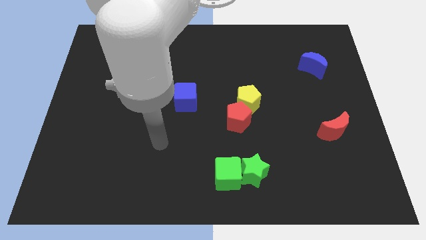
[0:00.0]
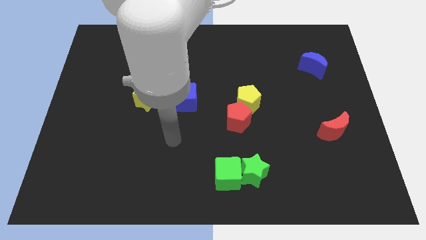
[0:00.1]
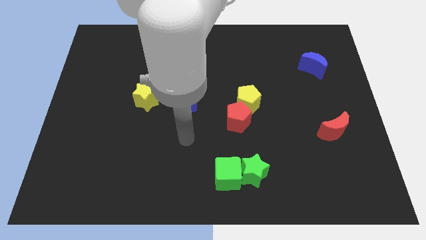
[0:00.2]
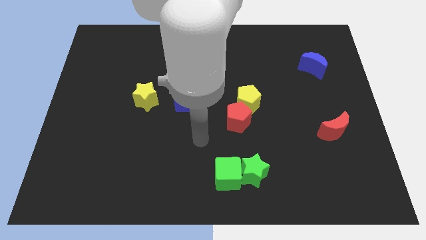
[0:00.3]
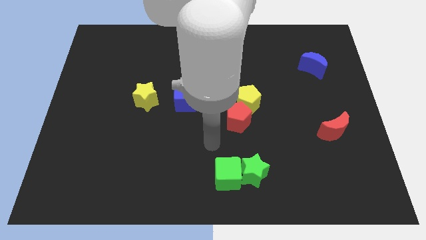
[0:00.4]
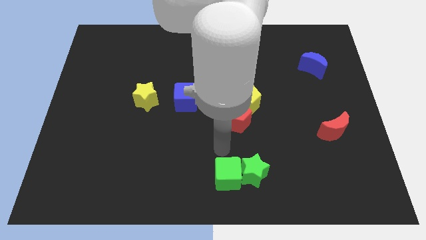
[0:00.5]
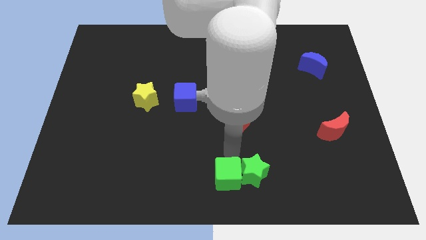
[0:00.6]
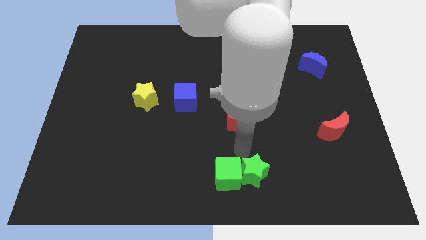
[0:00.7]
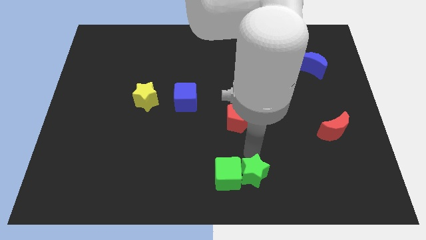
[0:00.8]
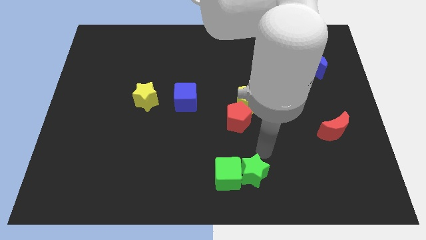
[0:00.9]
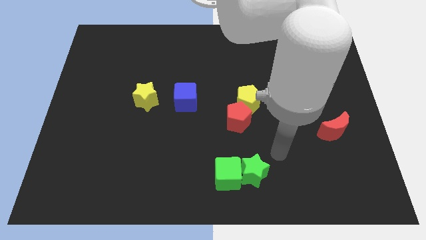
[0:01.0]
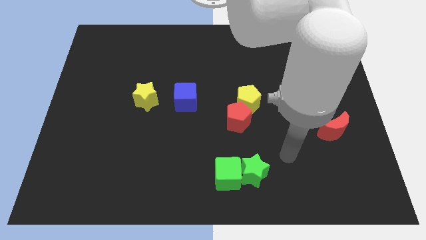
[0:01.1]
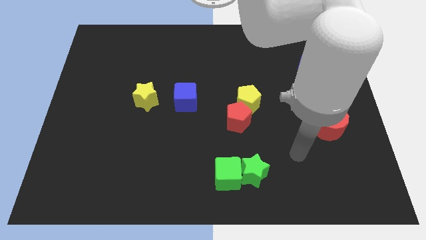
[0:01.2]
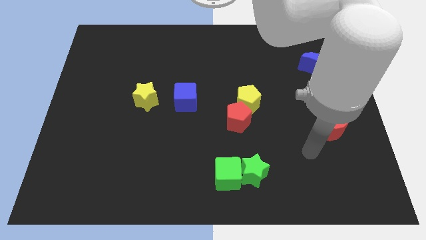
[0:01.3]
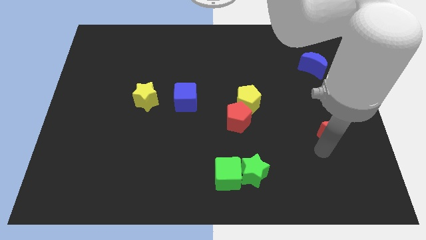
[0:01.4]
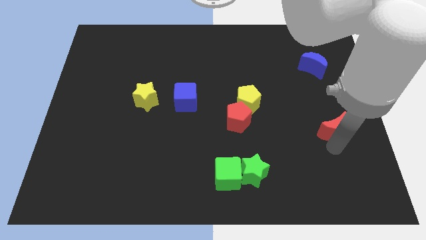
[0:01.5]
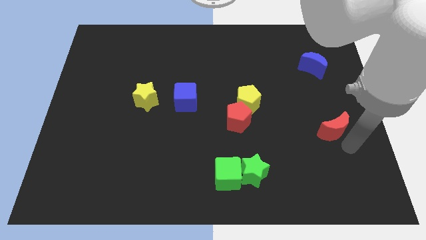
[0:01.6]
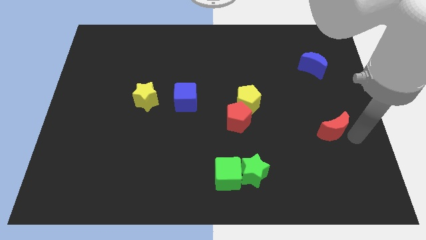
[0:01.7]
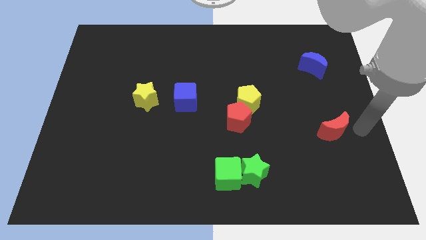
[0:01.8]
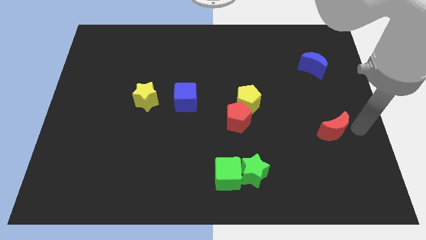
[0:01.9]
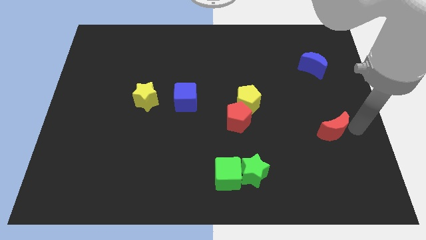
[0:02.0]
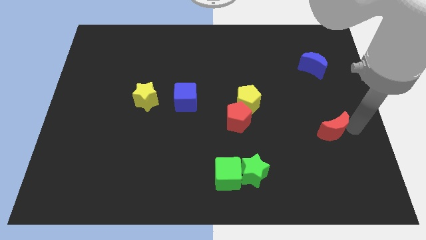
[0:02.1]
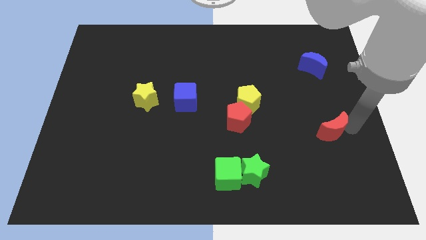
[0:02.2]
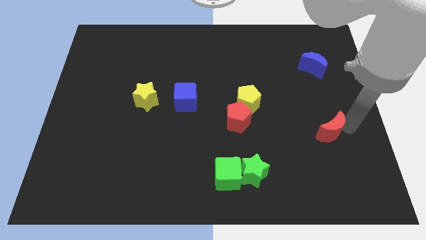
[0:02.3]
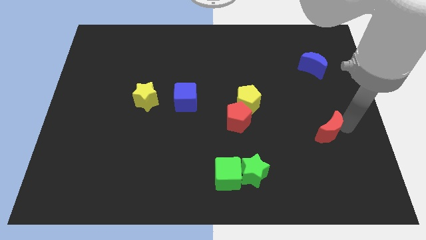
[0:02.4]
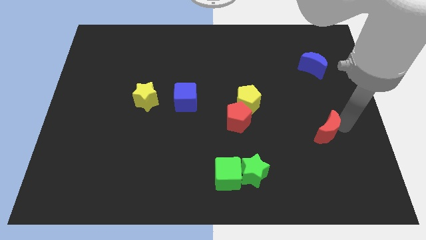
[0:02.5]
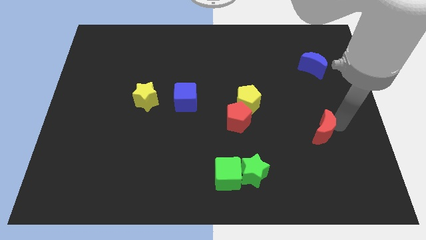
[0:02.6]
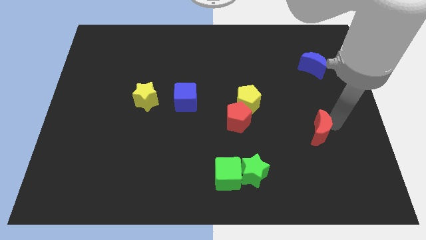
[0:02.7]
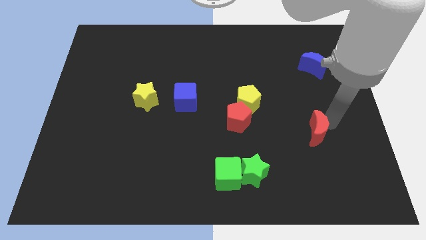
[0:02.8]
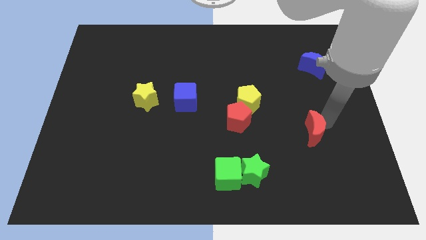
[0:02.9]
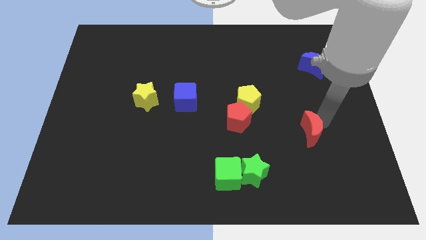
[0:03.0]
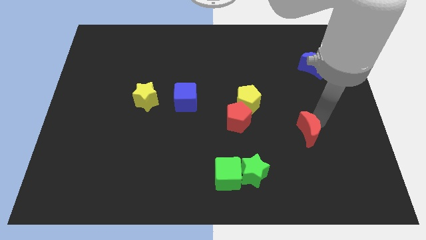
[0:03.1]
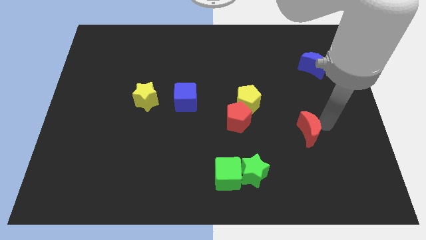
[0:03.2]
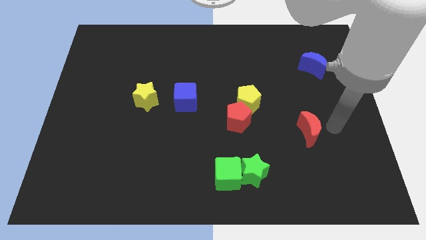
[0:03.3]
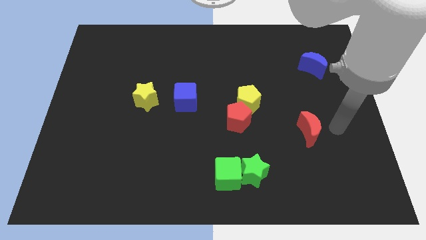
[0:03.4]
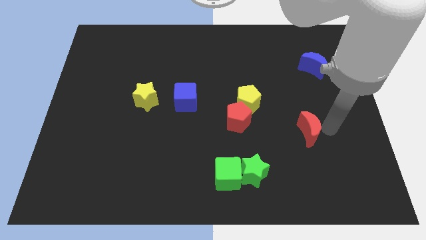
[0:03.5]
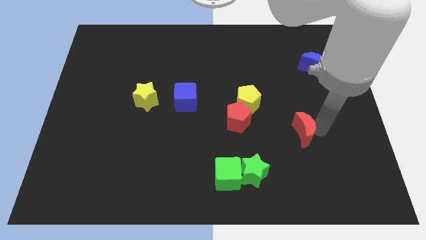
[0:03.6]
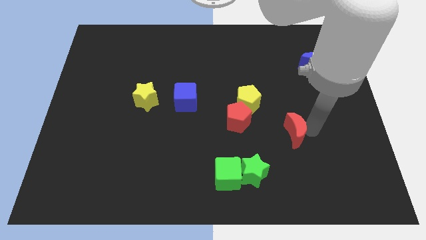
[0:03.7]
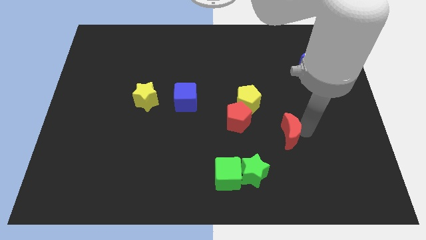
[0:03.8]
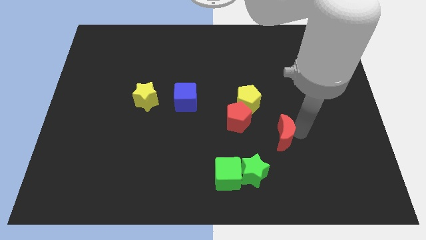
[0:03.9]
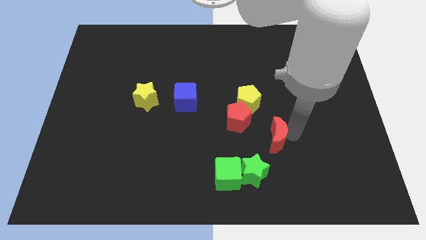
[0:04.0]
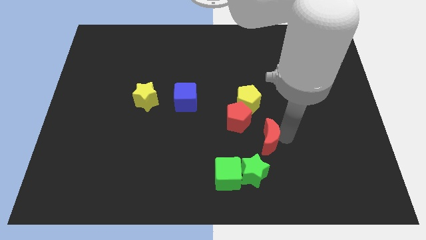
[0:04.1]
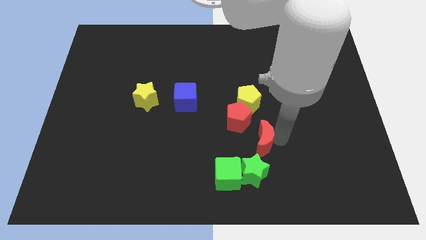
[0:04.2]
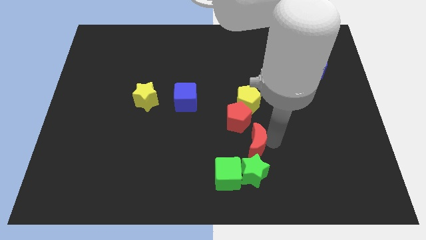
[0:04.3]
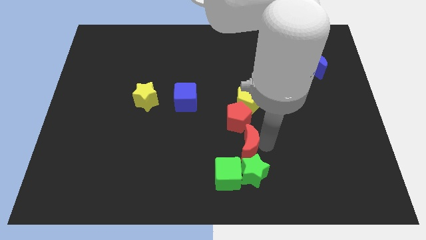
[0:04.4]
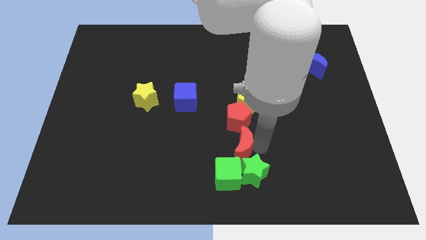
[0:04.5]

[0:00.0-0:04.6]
slide the red moon left

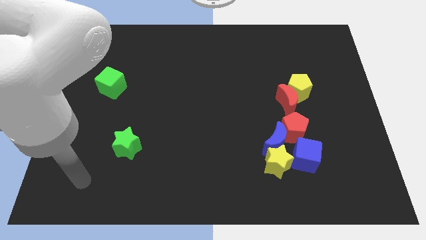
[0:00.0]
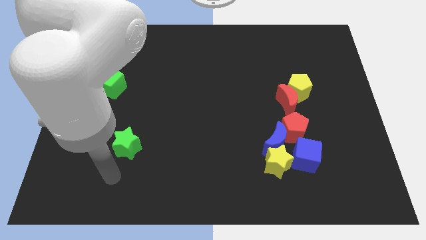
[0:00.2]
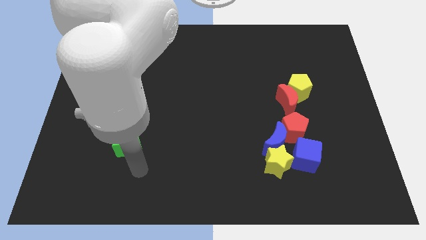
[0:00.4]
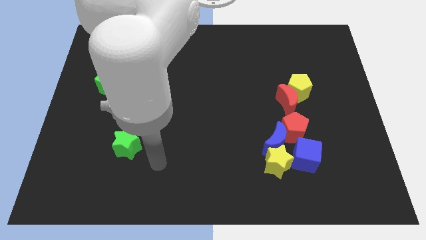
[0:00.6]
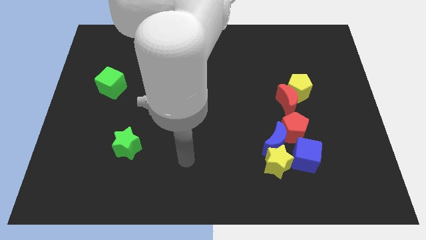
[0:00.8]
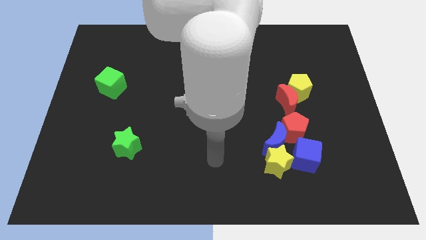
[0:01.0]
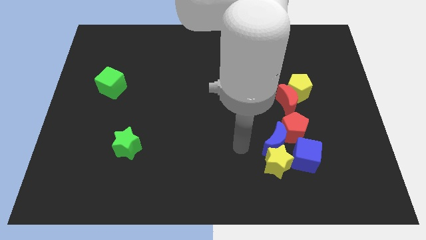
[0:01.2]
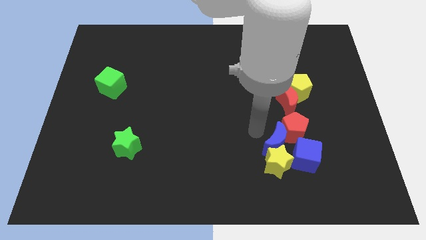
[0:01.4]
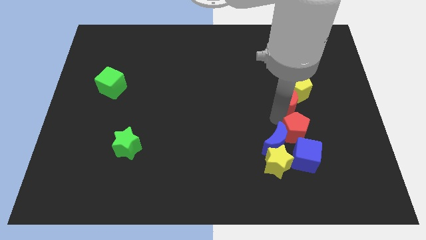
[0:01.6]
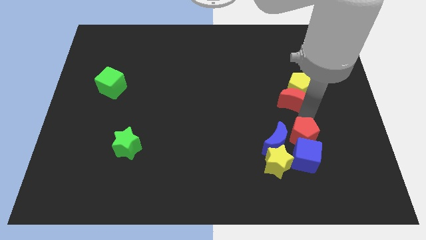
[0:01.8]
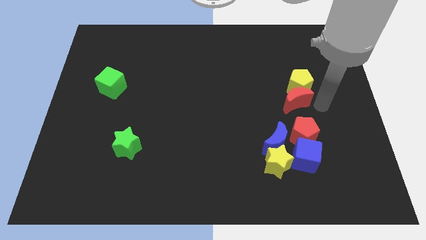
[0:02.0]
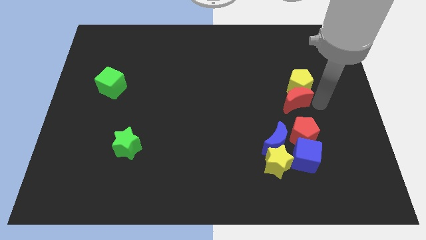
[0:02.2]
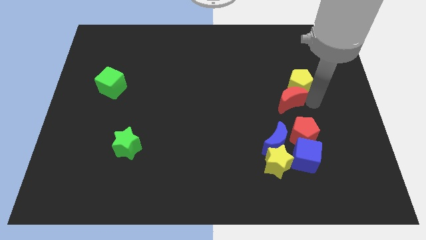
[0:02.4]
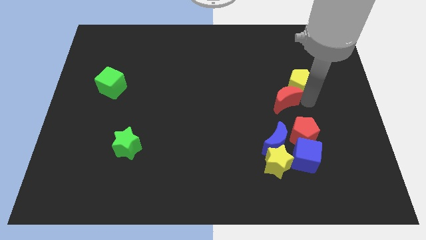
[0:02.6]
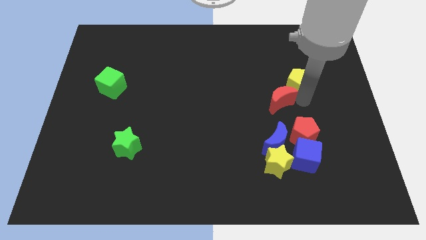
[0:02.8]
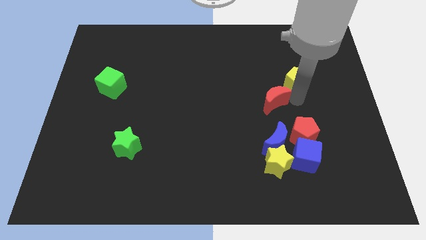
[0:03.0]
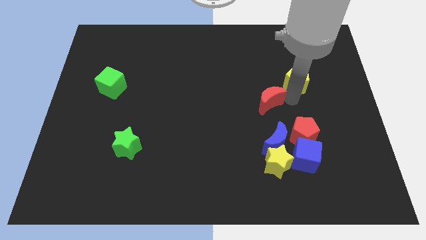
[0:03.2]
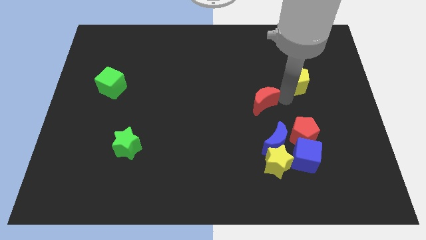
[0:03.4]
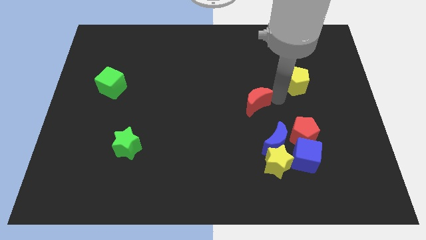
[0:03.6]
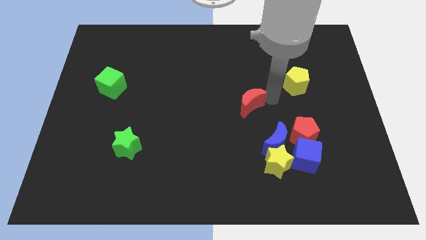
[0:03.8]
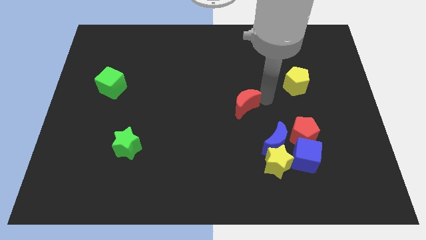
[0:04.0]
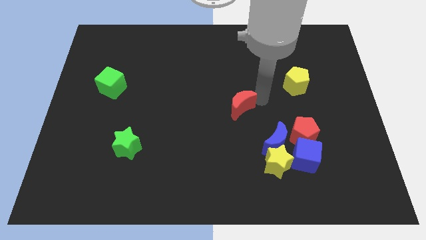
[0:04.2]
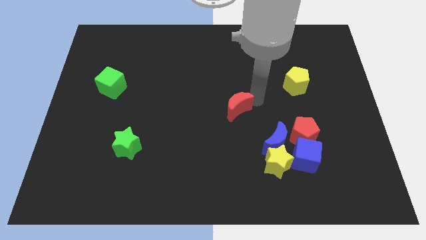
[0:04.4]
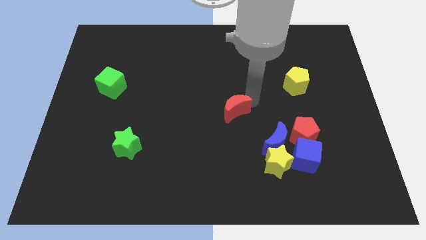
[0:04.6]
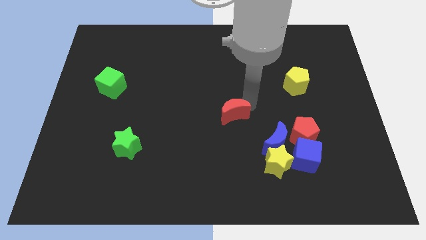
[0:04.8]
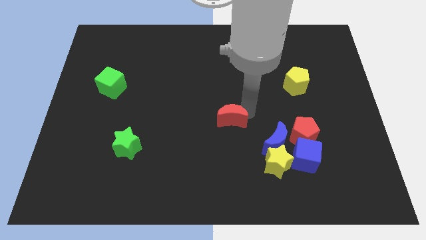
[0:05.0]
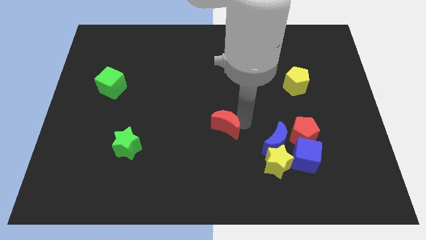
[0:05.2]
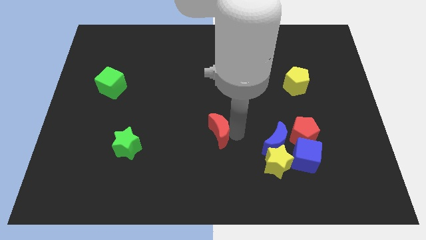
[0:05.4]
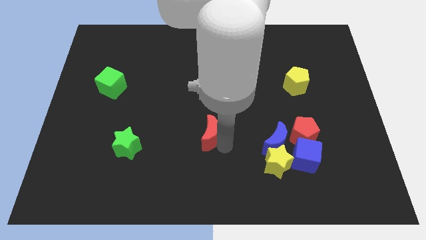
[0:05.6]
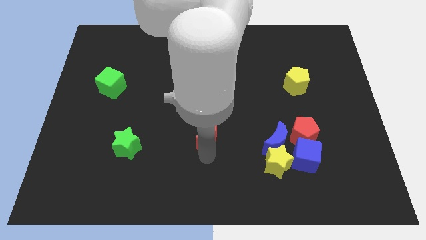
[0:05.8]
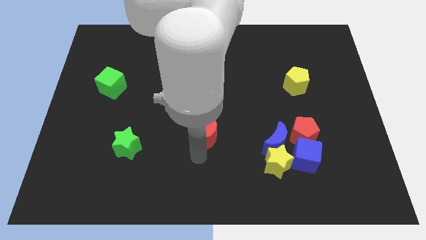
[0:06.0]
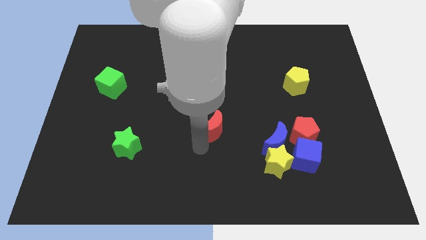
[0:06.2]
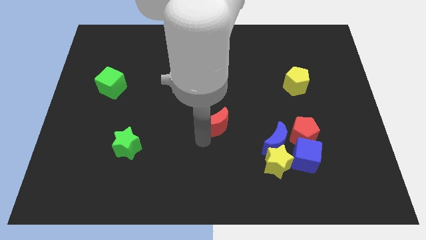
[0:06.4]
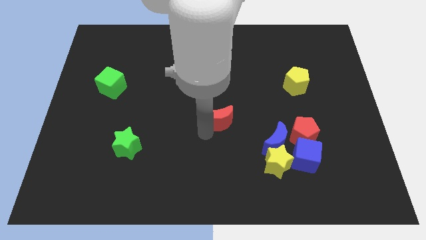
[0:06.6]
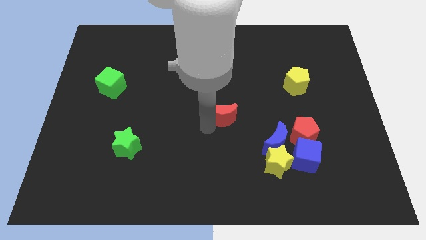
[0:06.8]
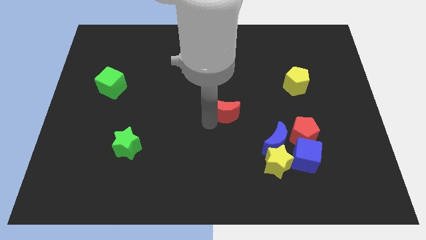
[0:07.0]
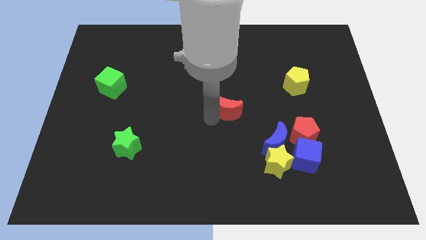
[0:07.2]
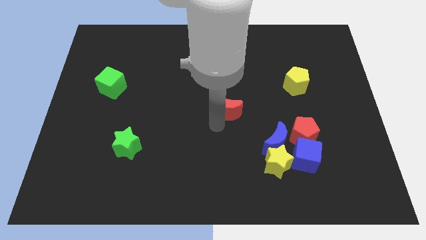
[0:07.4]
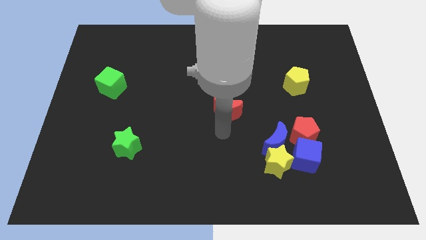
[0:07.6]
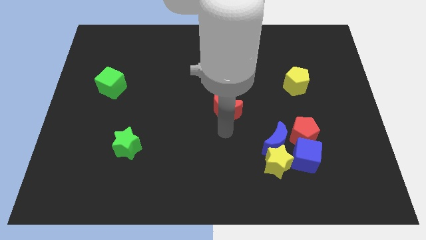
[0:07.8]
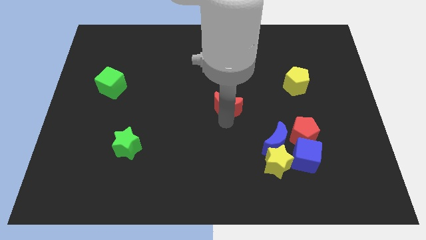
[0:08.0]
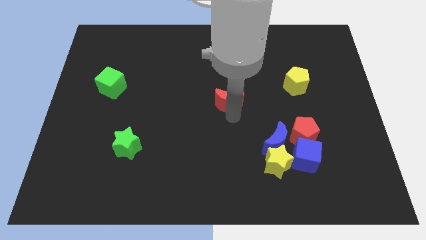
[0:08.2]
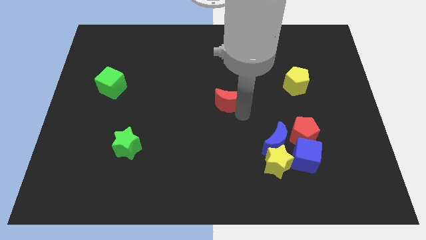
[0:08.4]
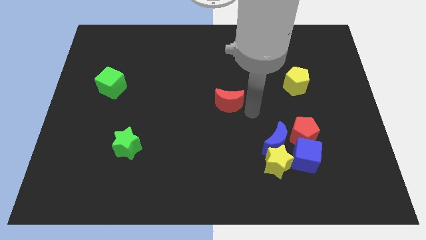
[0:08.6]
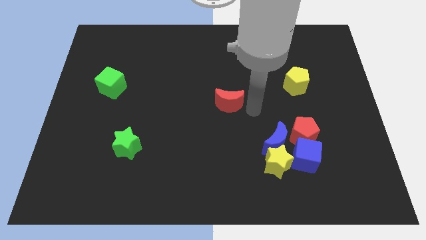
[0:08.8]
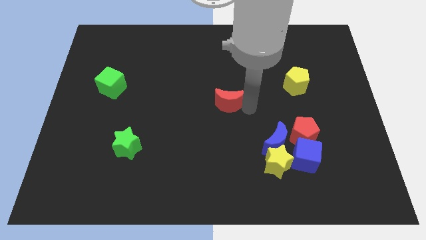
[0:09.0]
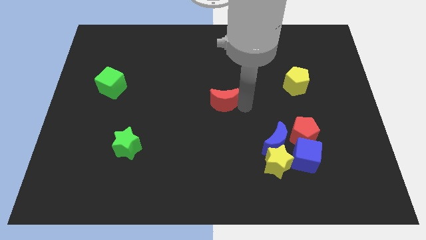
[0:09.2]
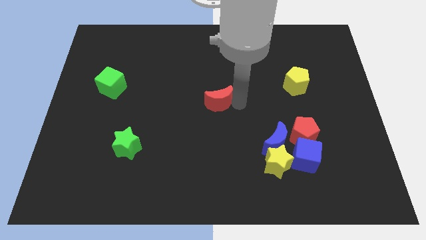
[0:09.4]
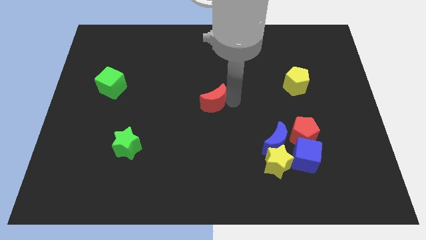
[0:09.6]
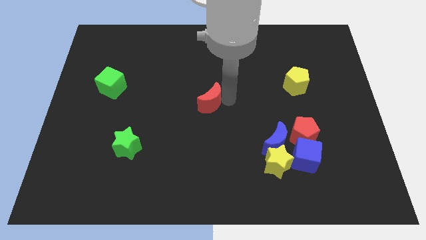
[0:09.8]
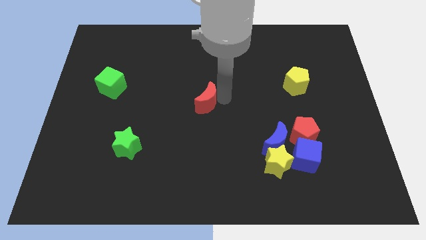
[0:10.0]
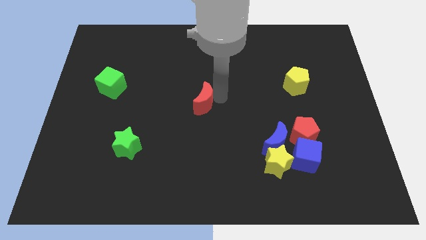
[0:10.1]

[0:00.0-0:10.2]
push the red moon to the left
